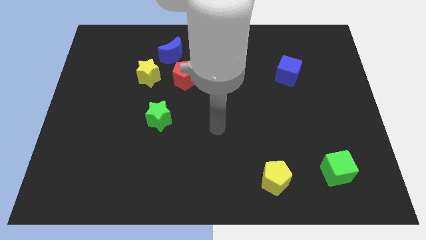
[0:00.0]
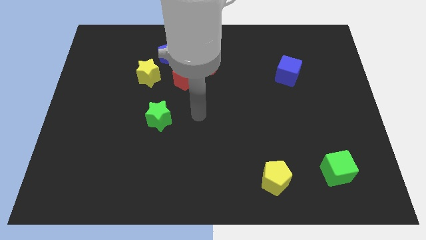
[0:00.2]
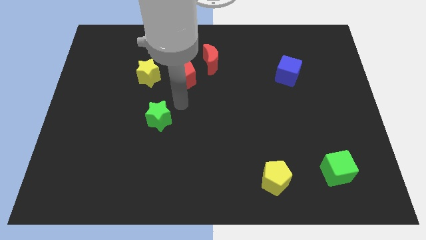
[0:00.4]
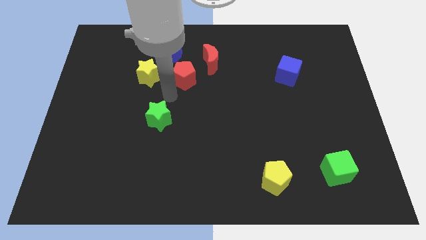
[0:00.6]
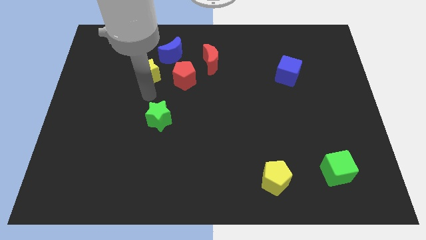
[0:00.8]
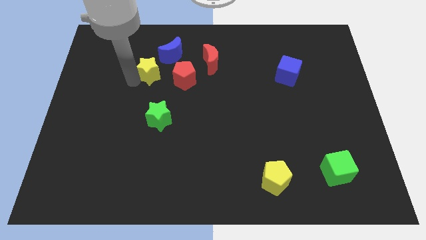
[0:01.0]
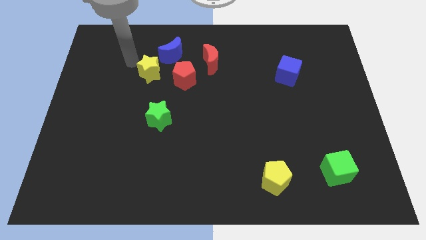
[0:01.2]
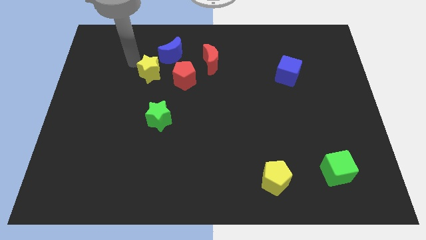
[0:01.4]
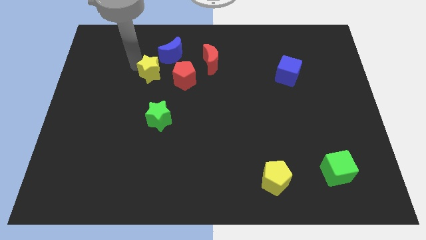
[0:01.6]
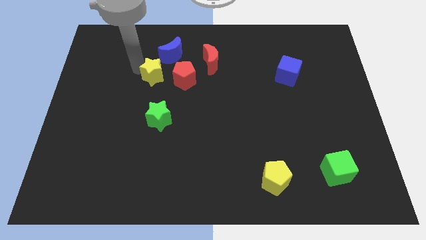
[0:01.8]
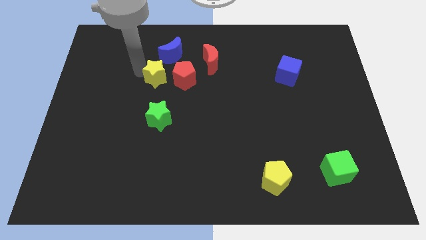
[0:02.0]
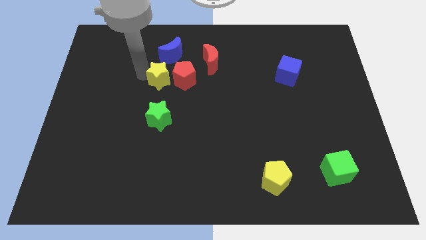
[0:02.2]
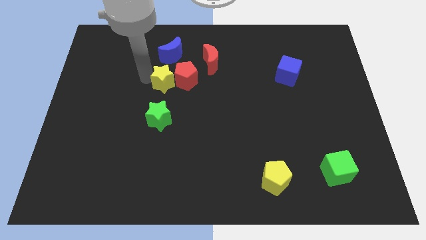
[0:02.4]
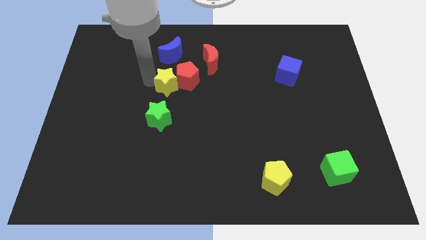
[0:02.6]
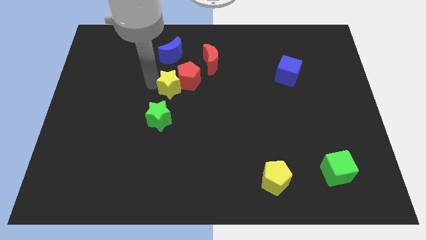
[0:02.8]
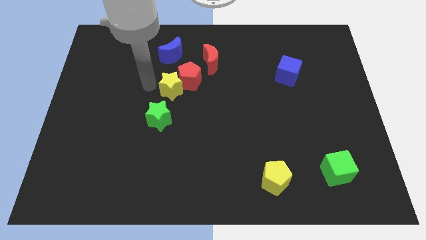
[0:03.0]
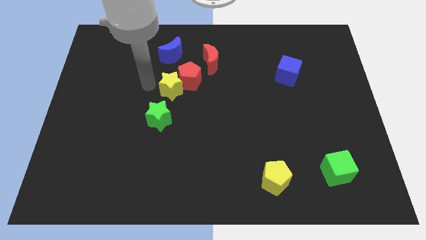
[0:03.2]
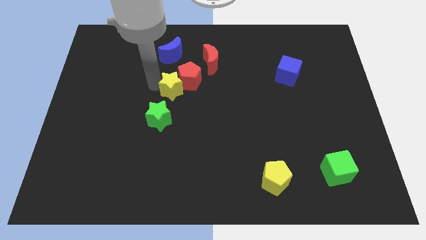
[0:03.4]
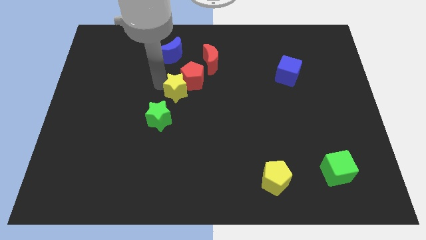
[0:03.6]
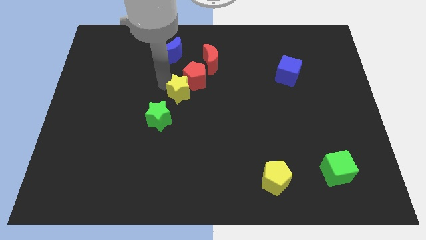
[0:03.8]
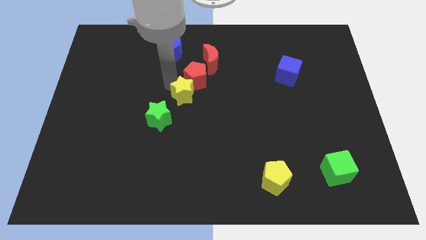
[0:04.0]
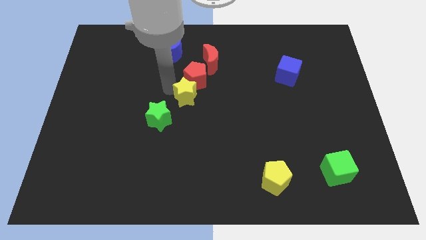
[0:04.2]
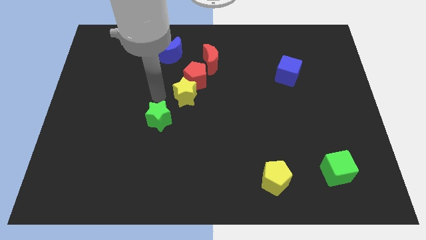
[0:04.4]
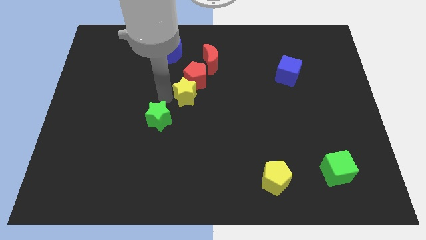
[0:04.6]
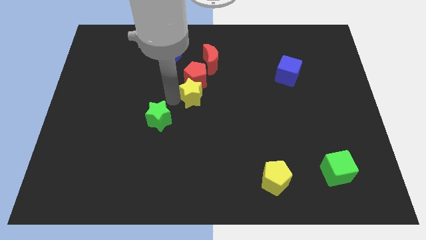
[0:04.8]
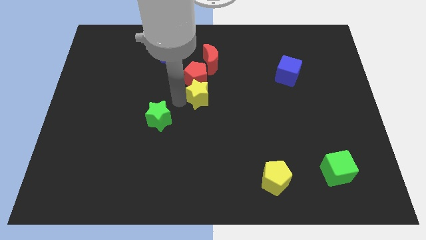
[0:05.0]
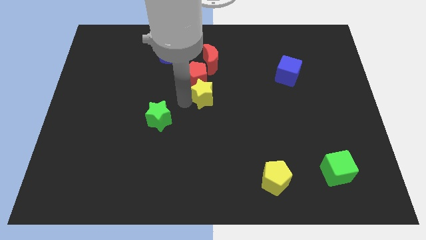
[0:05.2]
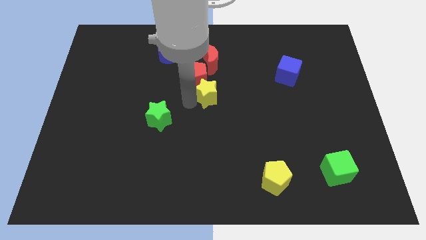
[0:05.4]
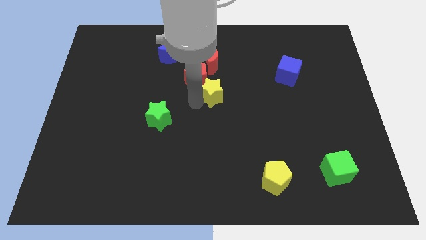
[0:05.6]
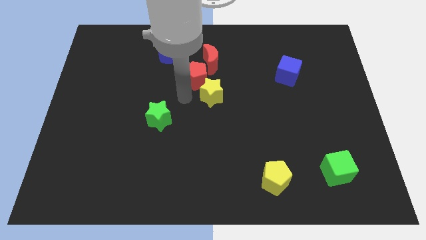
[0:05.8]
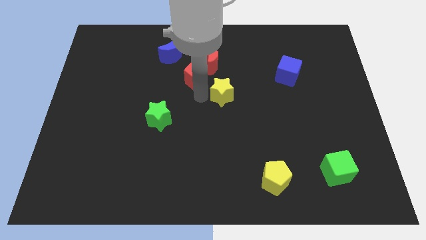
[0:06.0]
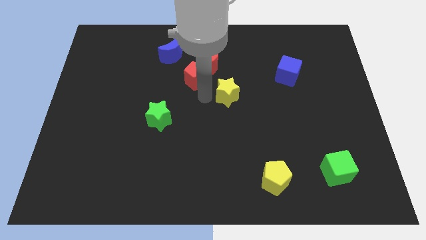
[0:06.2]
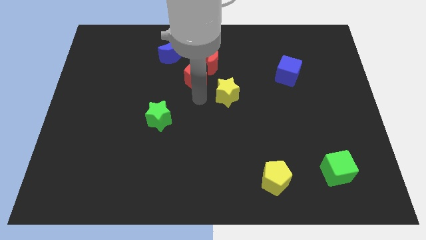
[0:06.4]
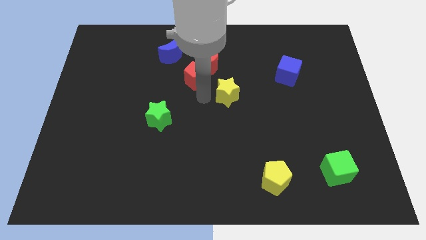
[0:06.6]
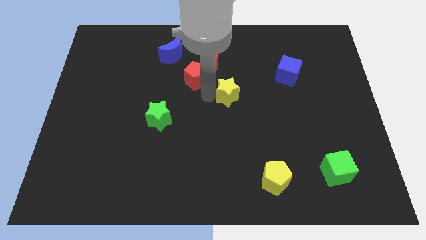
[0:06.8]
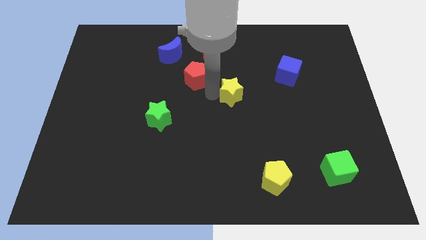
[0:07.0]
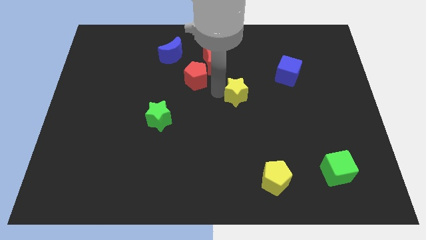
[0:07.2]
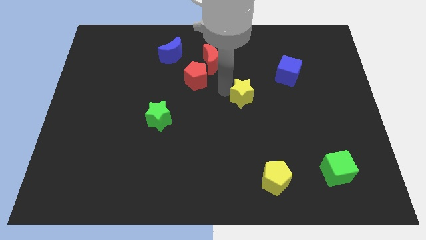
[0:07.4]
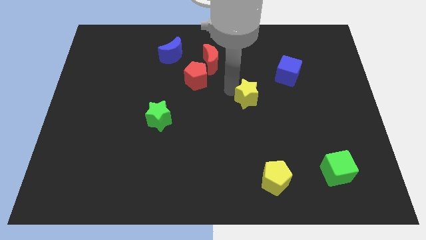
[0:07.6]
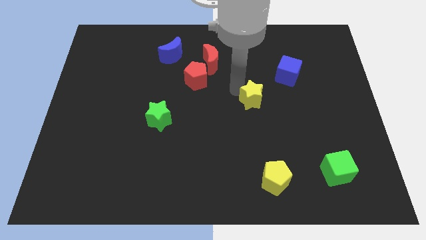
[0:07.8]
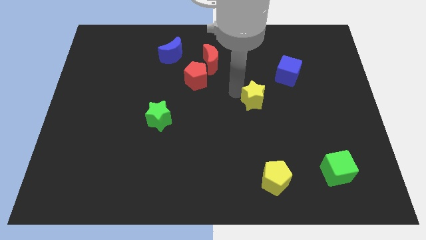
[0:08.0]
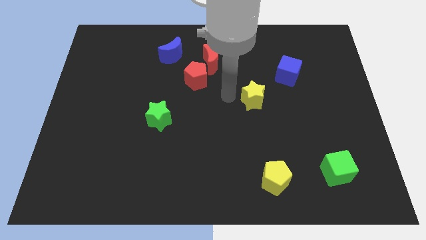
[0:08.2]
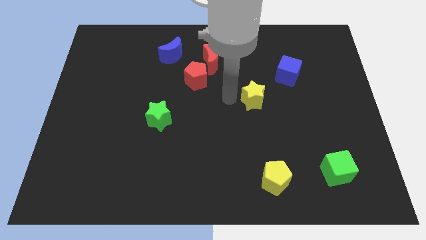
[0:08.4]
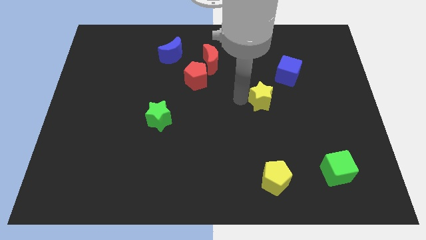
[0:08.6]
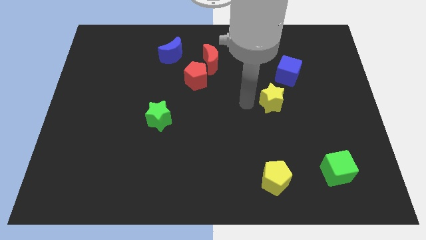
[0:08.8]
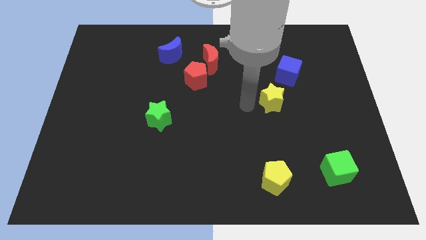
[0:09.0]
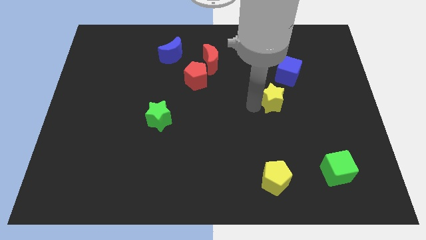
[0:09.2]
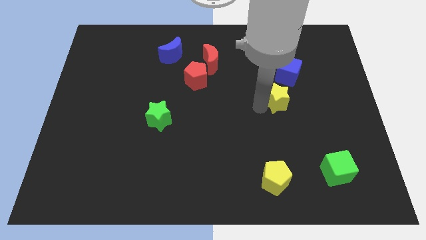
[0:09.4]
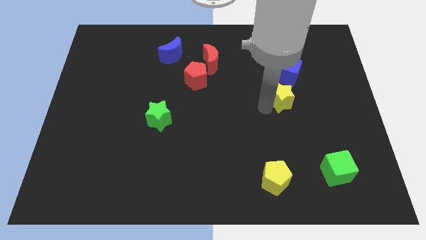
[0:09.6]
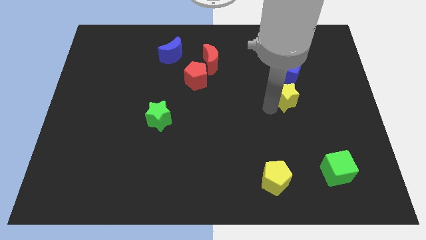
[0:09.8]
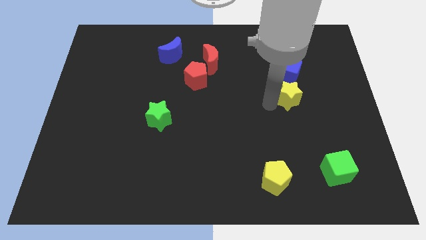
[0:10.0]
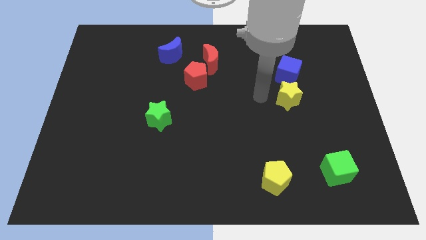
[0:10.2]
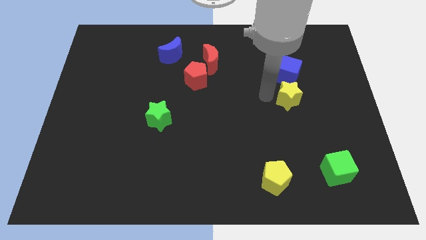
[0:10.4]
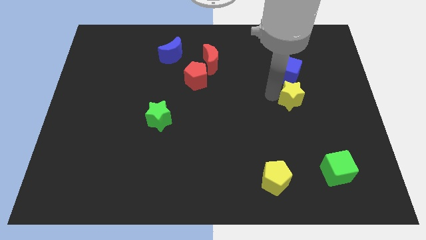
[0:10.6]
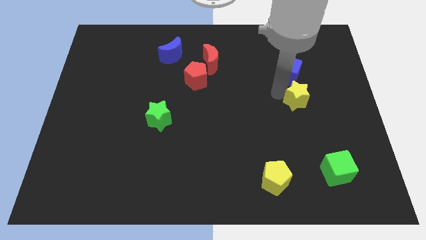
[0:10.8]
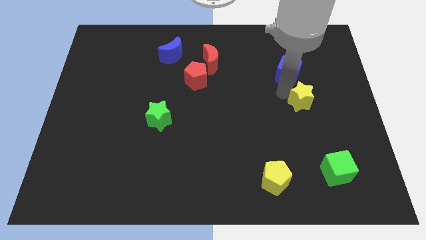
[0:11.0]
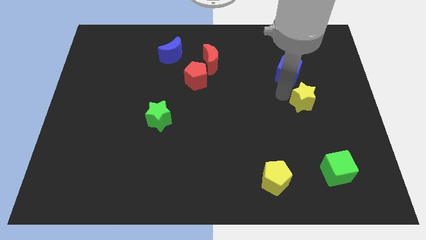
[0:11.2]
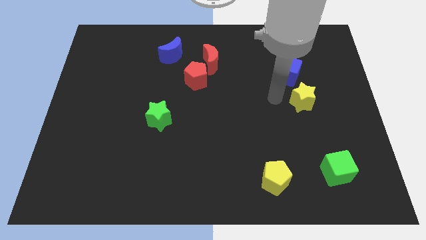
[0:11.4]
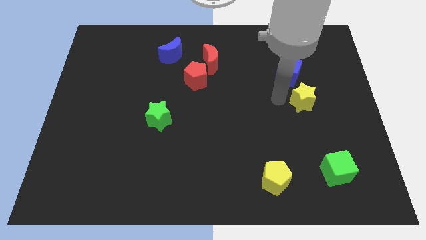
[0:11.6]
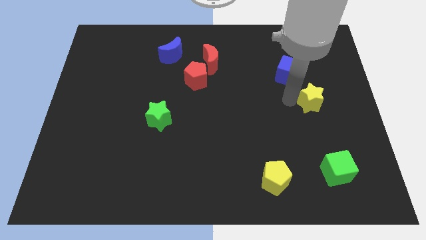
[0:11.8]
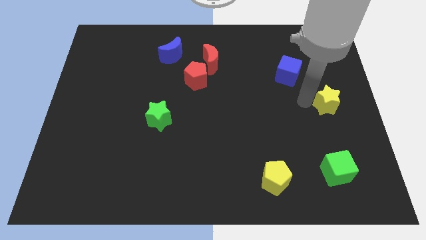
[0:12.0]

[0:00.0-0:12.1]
move the yellow star to the right side
